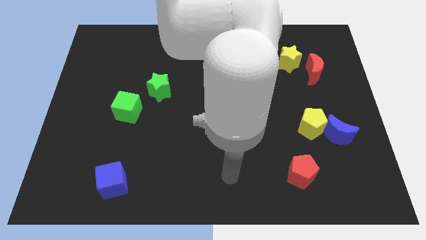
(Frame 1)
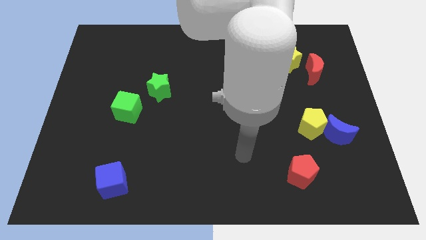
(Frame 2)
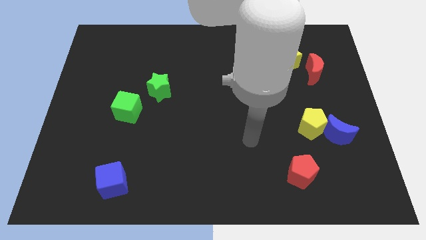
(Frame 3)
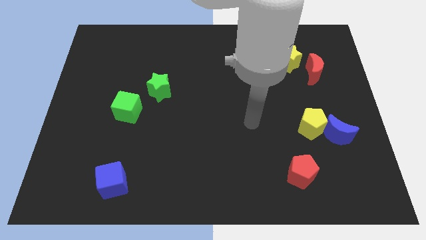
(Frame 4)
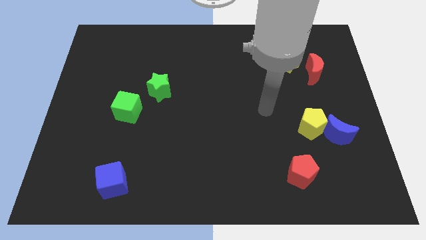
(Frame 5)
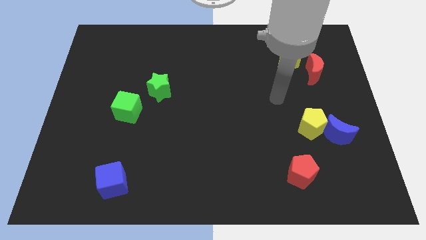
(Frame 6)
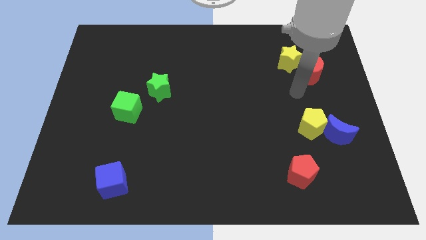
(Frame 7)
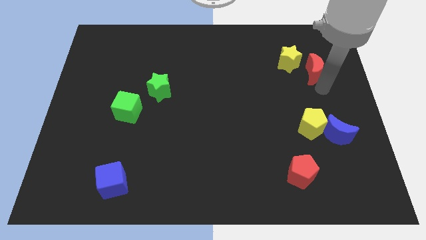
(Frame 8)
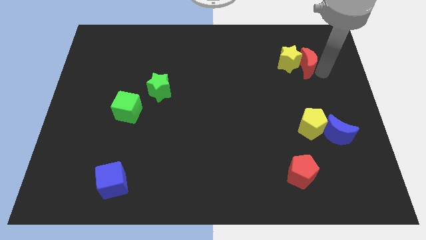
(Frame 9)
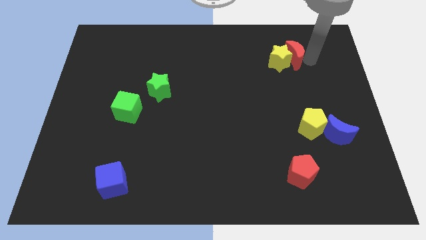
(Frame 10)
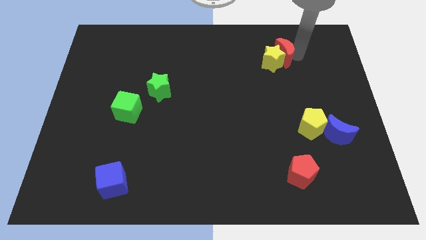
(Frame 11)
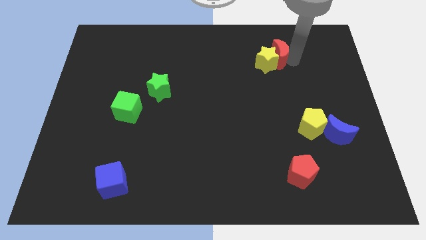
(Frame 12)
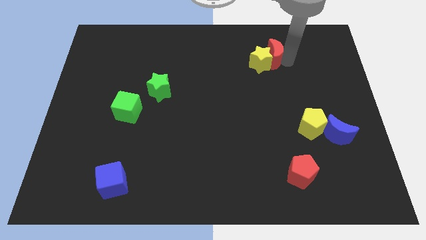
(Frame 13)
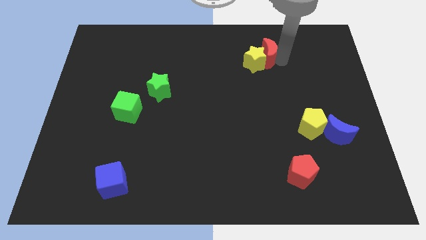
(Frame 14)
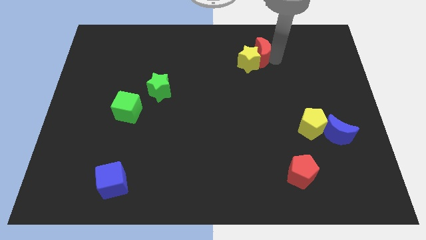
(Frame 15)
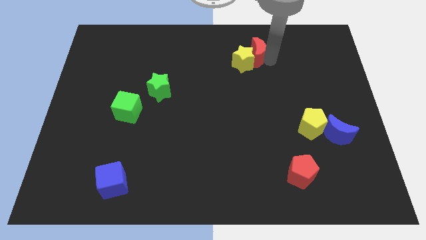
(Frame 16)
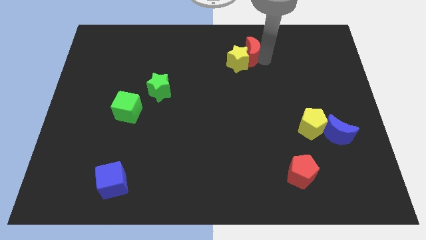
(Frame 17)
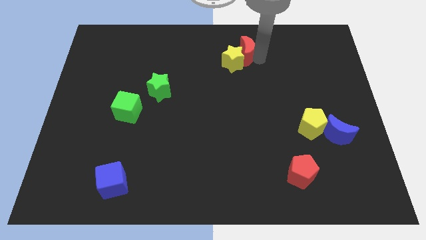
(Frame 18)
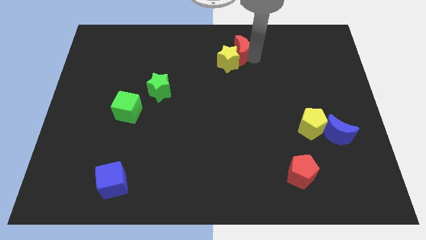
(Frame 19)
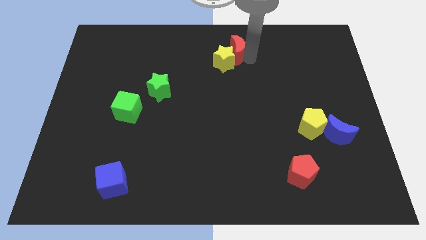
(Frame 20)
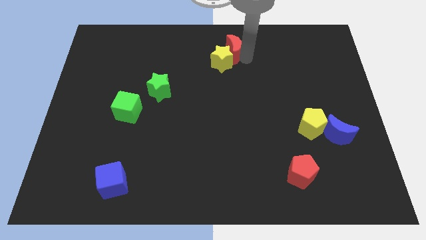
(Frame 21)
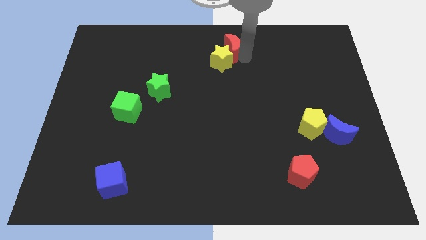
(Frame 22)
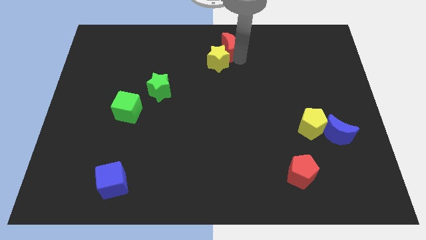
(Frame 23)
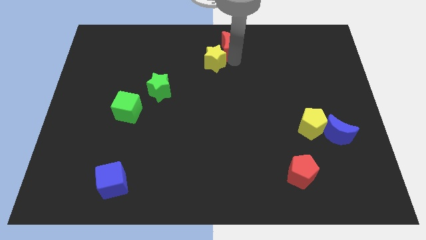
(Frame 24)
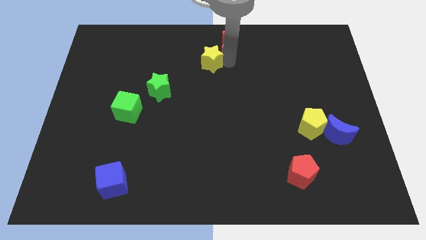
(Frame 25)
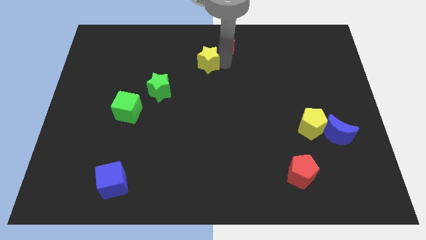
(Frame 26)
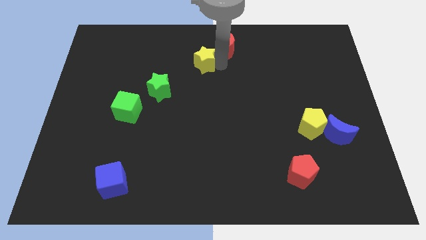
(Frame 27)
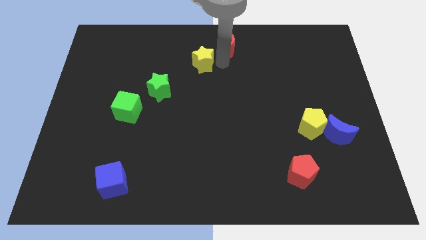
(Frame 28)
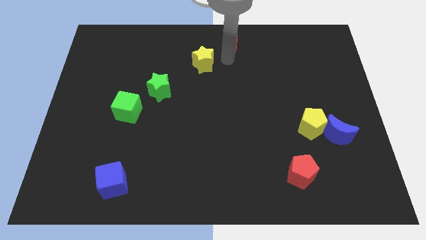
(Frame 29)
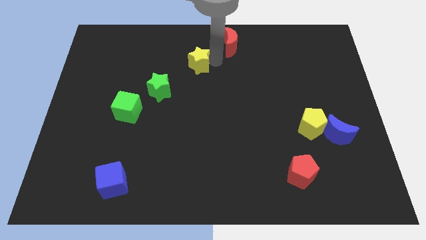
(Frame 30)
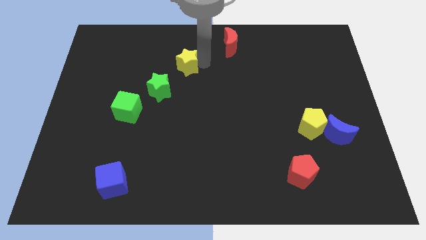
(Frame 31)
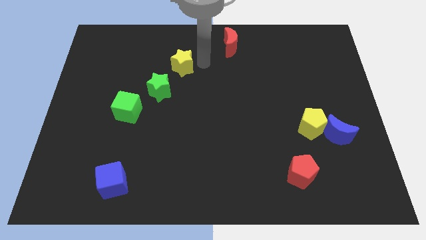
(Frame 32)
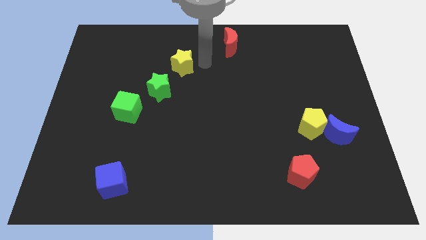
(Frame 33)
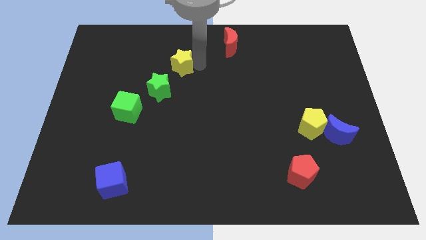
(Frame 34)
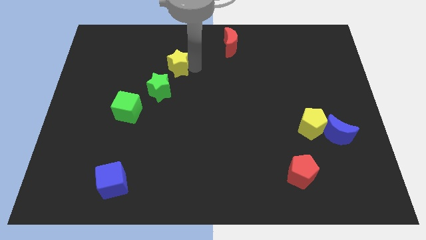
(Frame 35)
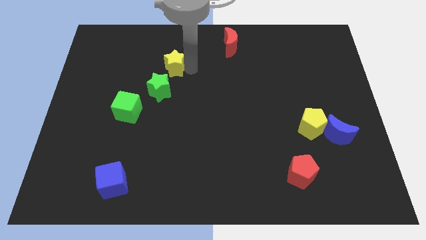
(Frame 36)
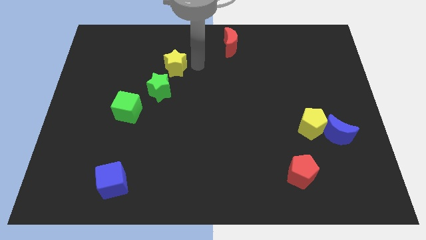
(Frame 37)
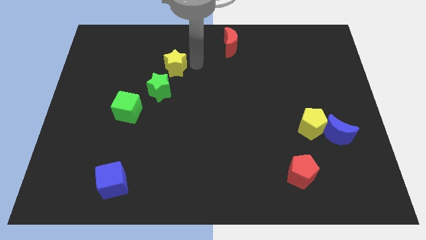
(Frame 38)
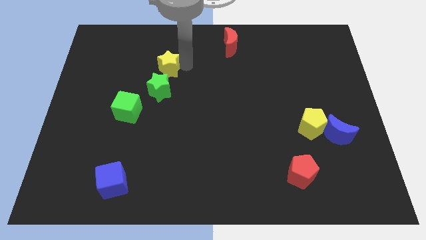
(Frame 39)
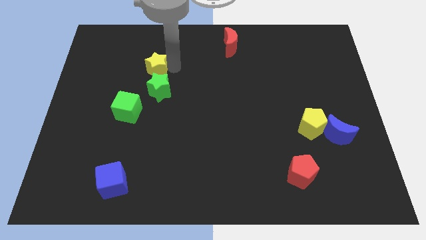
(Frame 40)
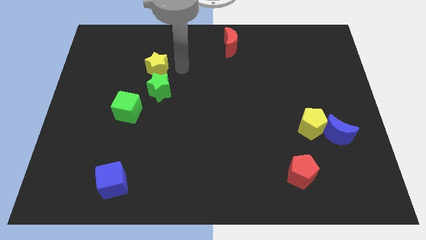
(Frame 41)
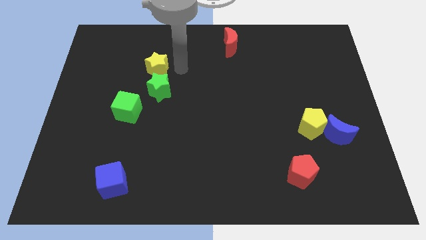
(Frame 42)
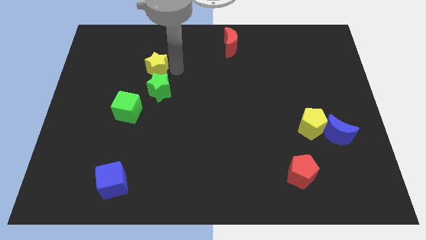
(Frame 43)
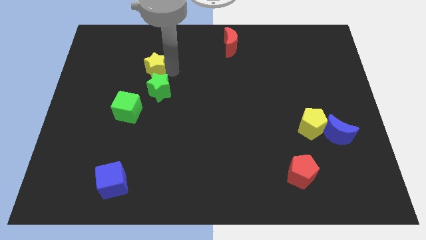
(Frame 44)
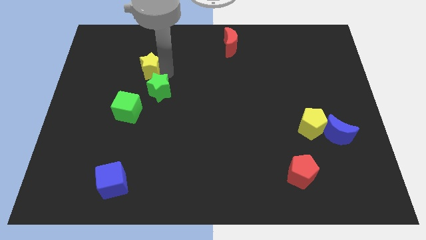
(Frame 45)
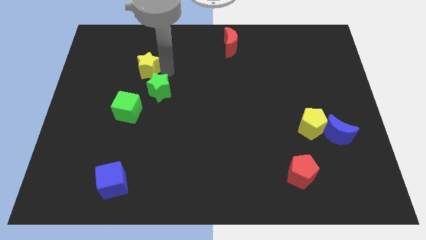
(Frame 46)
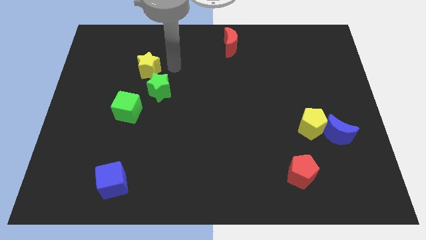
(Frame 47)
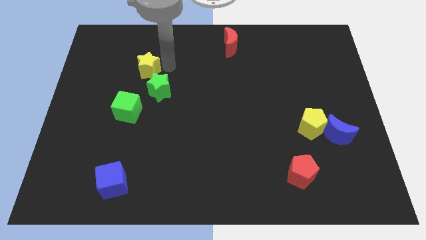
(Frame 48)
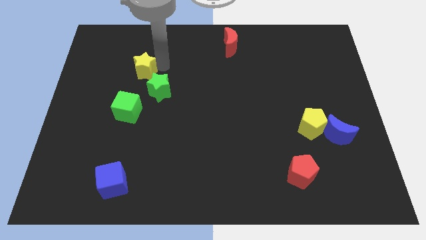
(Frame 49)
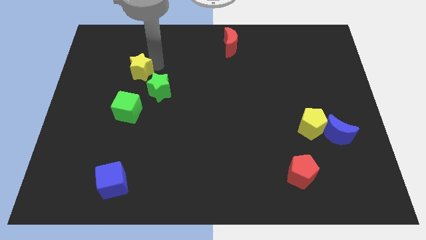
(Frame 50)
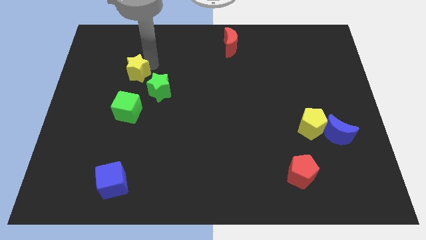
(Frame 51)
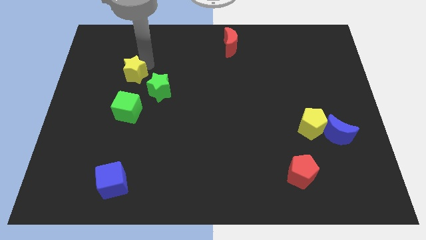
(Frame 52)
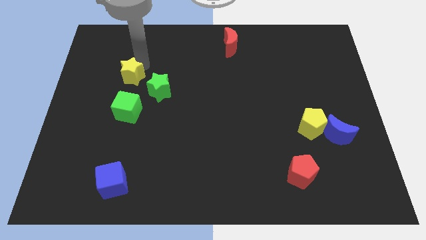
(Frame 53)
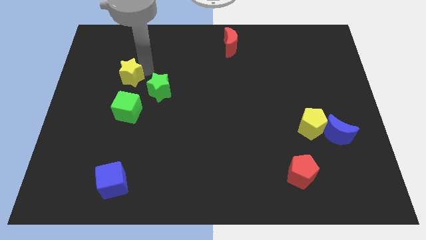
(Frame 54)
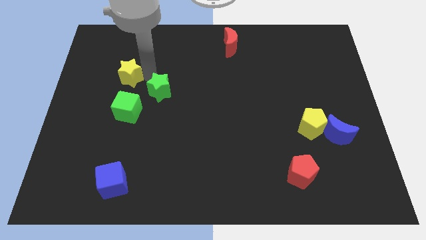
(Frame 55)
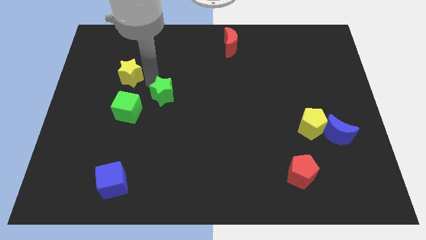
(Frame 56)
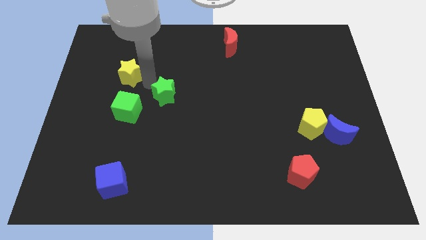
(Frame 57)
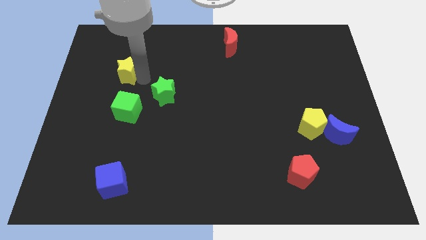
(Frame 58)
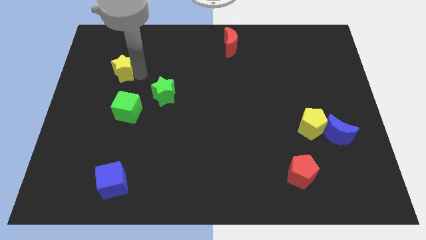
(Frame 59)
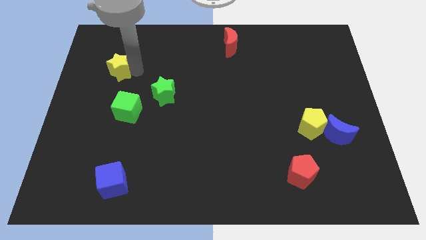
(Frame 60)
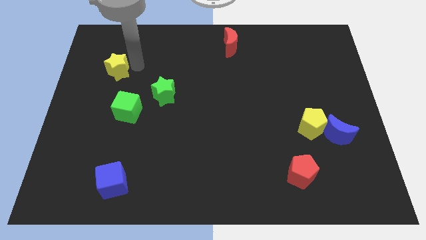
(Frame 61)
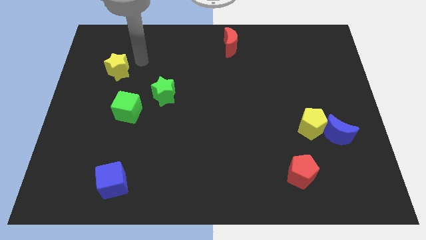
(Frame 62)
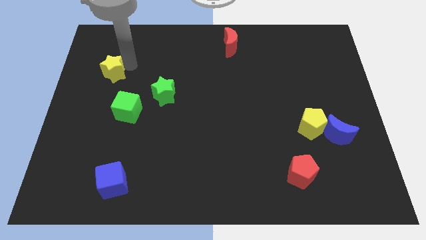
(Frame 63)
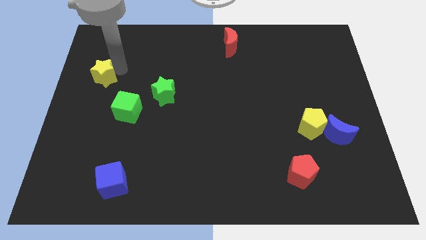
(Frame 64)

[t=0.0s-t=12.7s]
slide the yellow star to the left side
